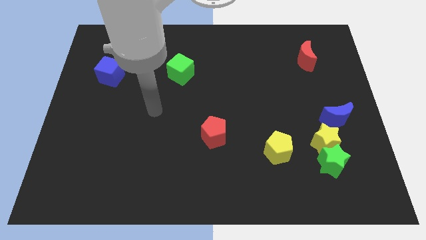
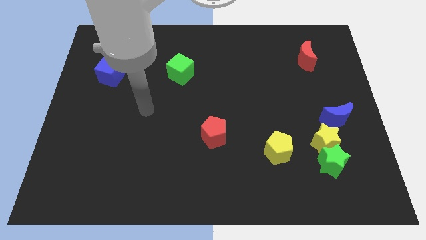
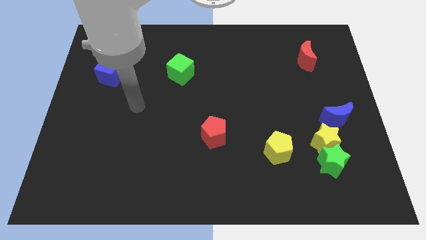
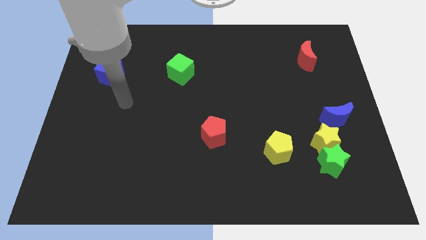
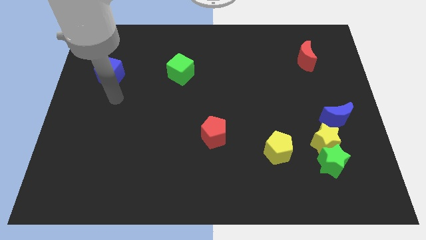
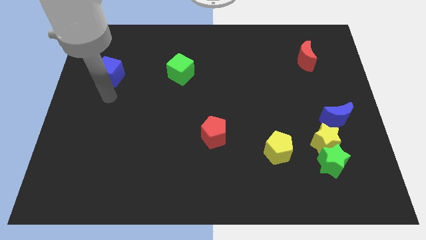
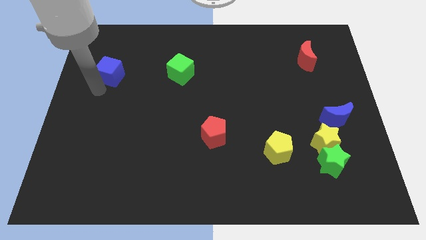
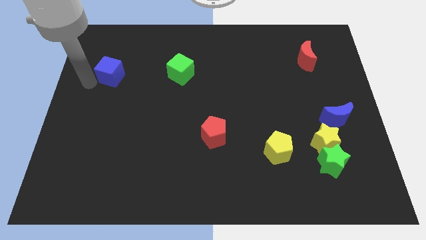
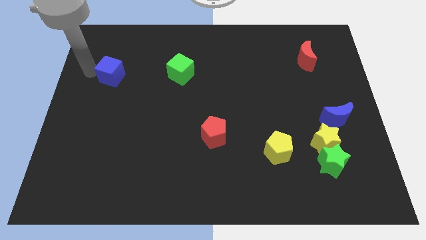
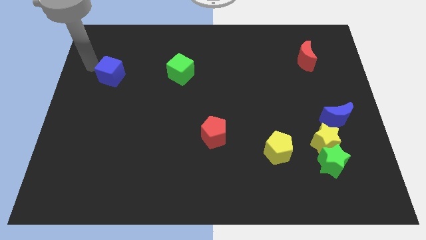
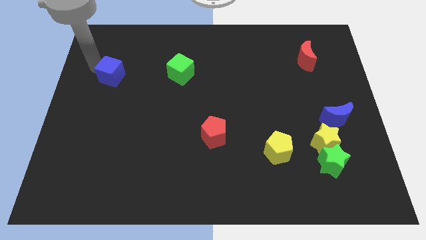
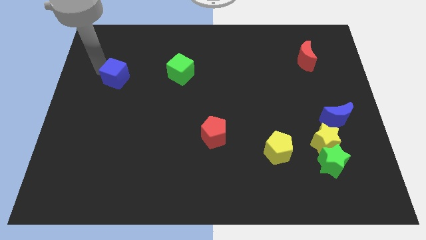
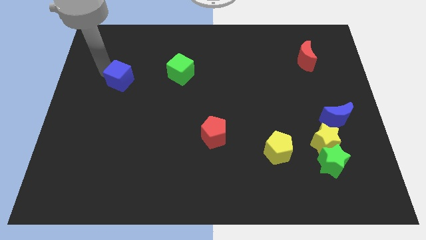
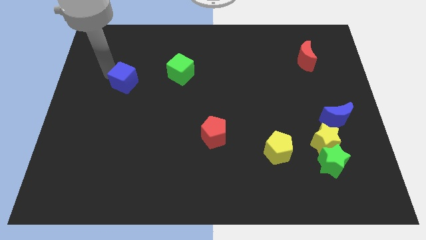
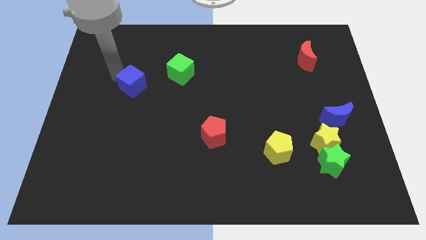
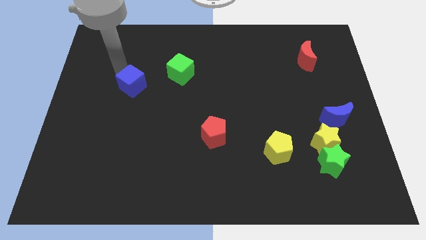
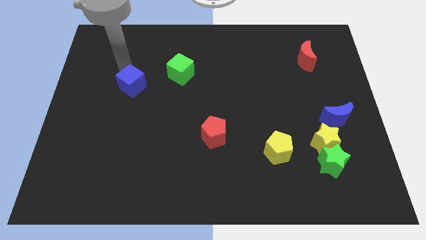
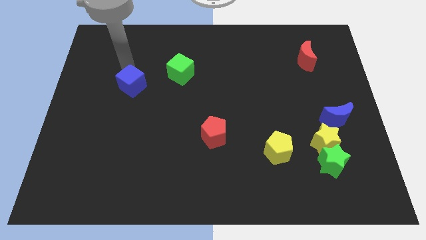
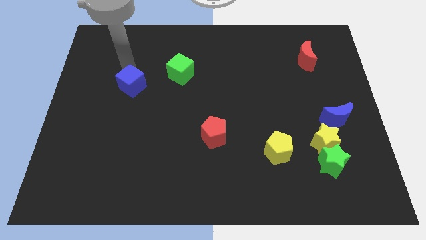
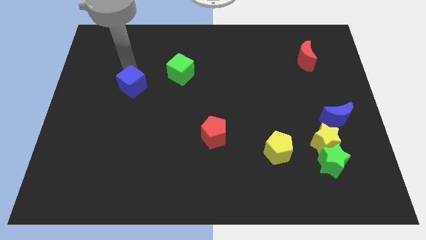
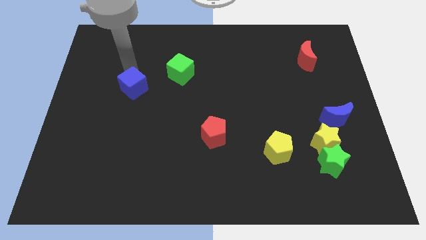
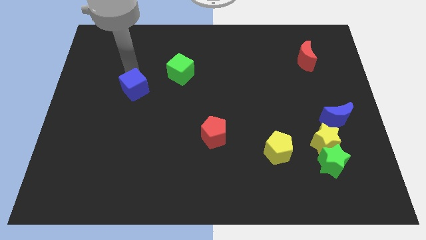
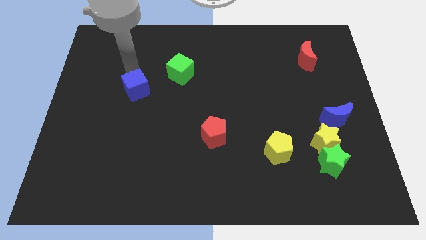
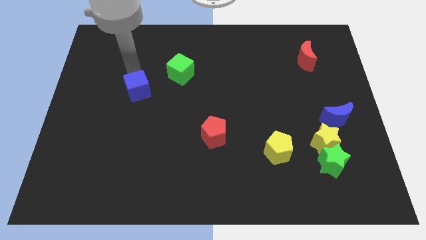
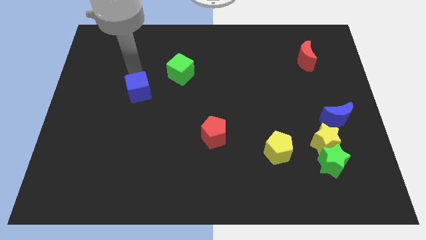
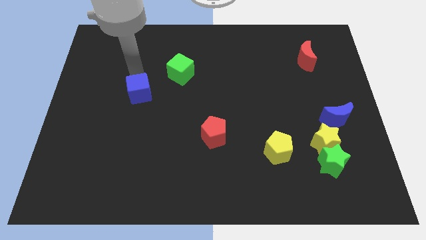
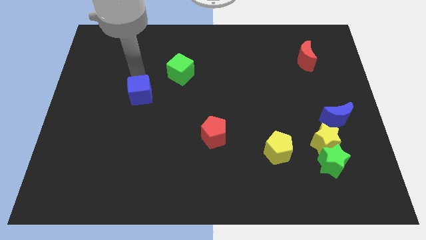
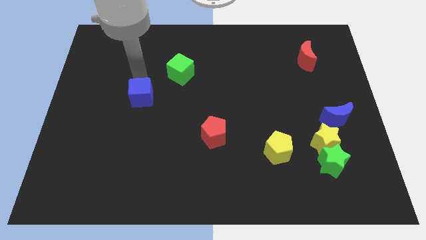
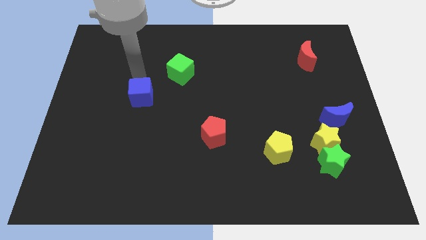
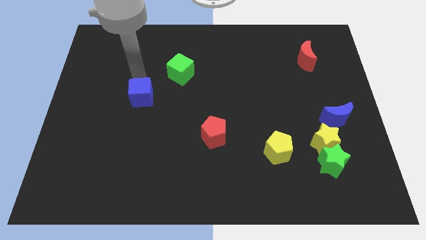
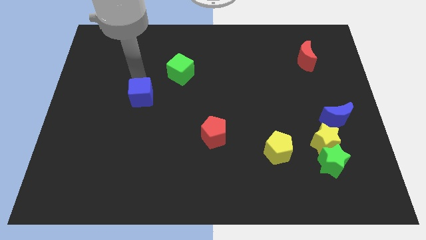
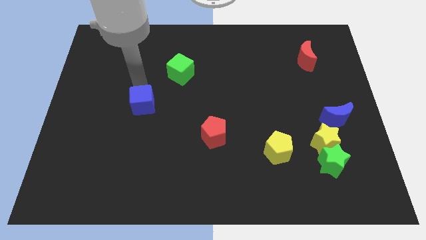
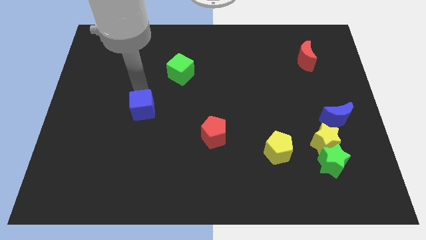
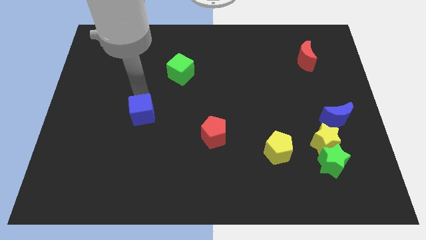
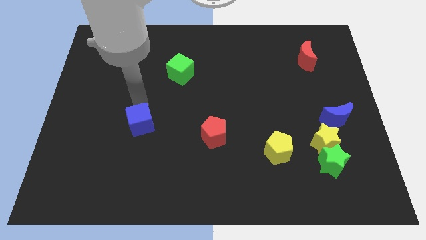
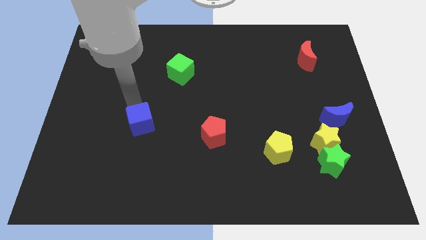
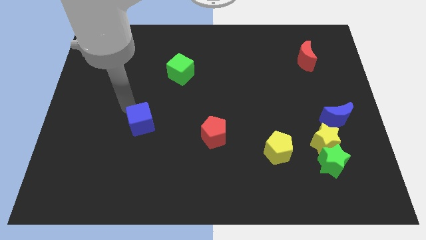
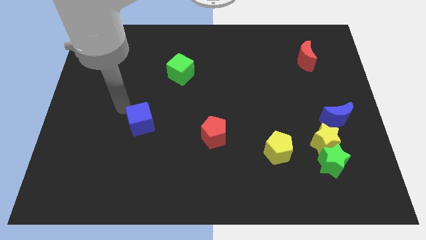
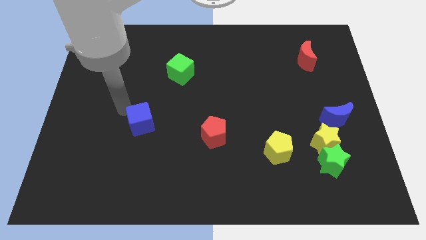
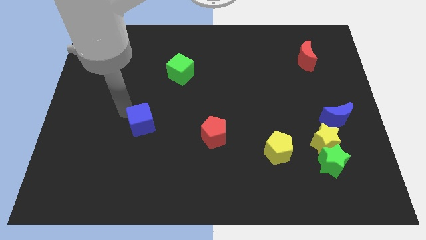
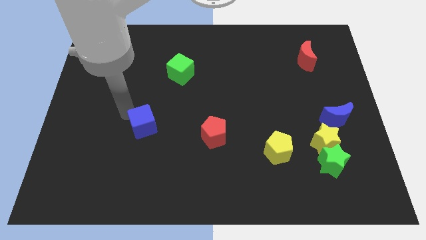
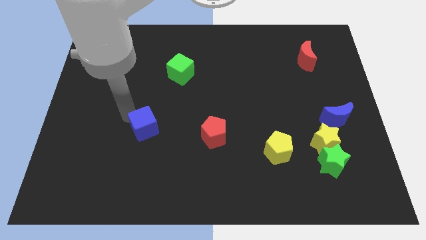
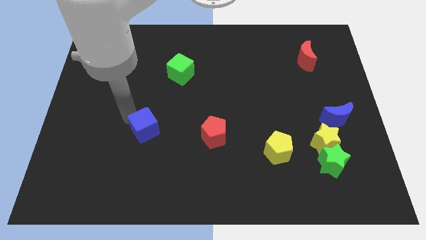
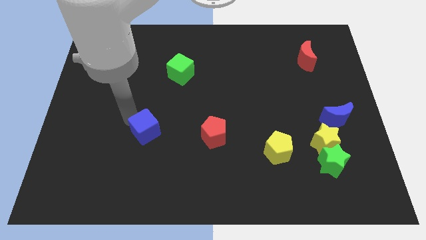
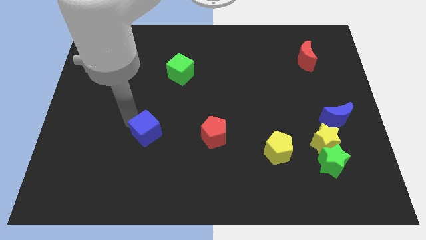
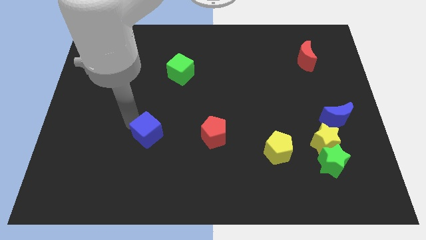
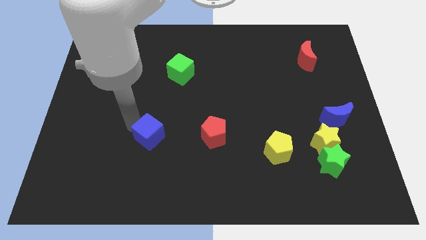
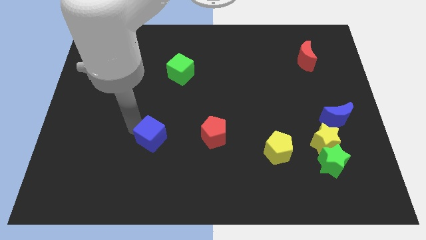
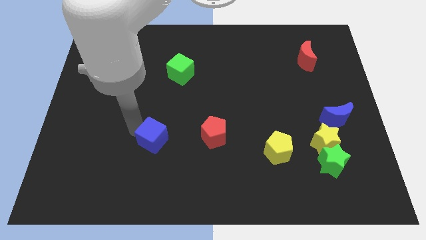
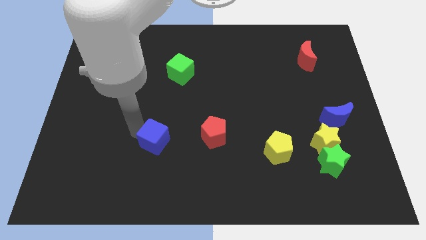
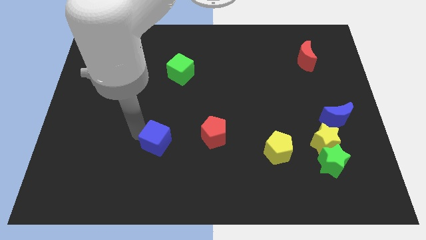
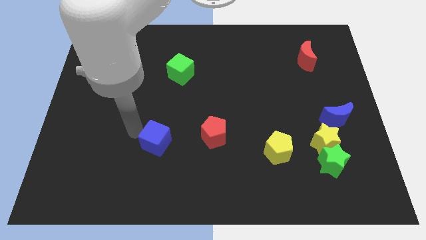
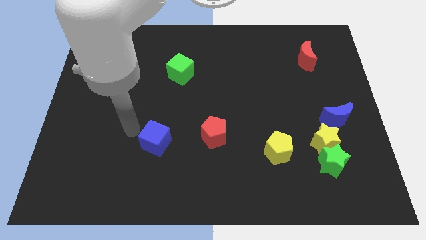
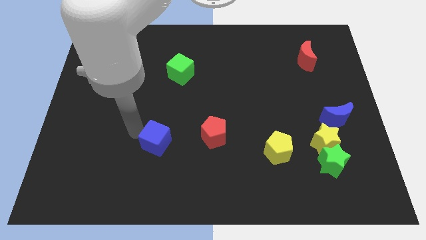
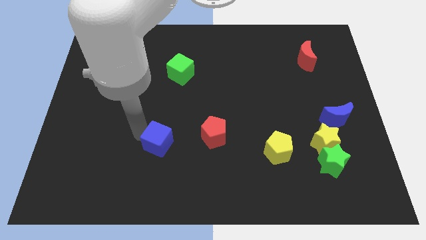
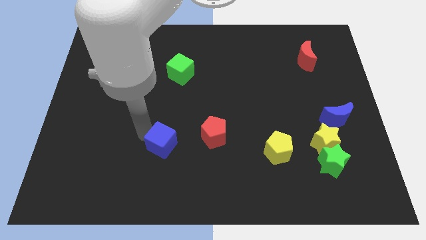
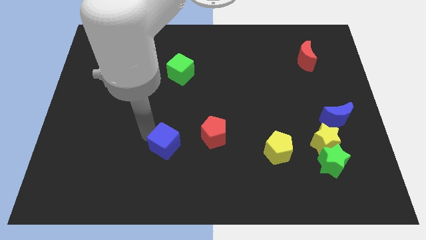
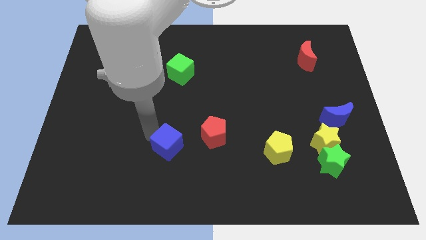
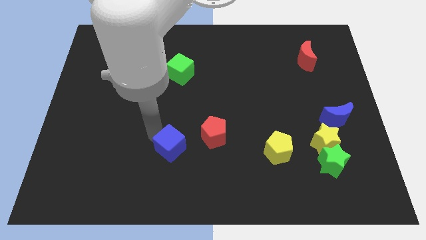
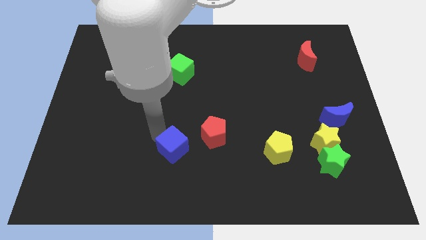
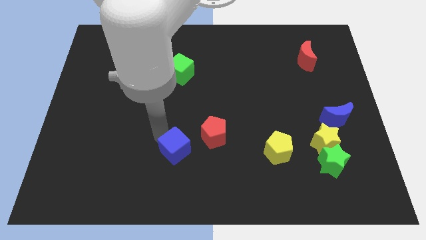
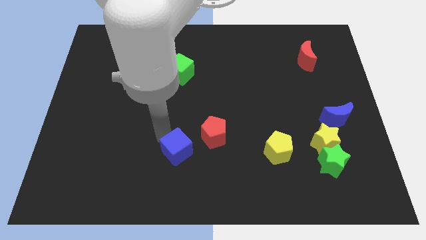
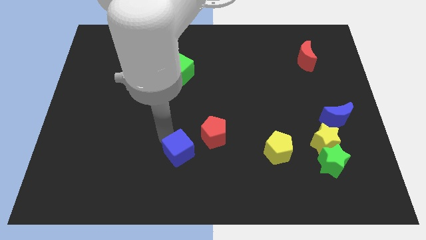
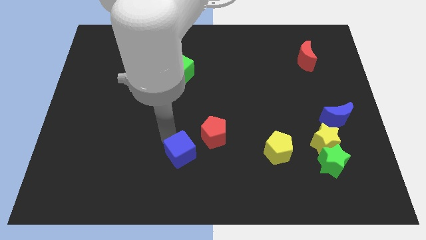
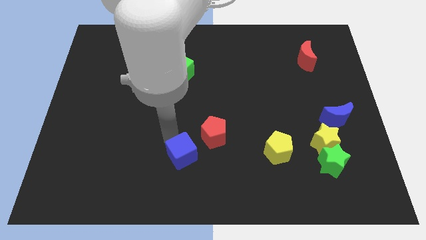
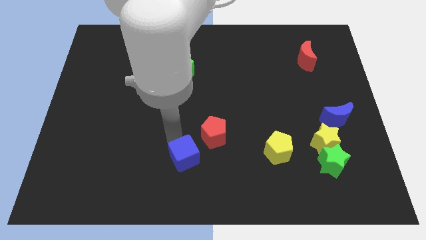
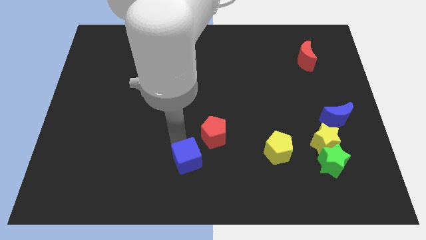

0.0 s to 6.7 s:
slide the blue cube to the bottom

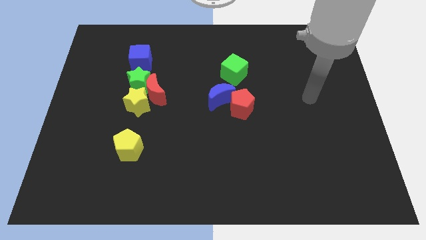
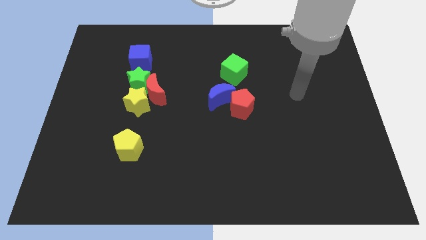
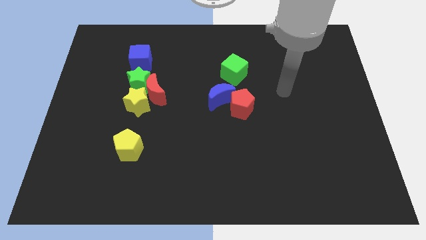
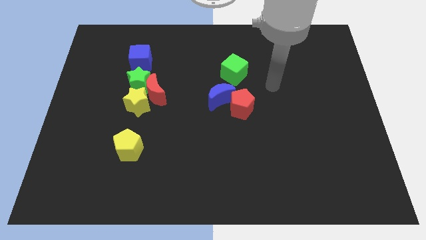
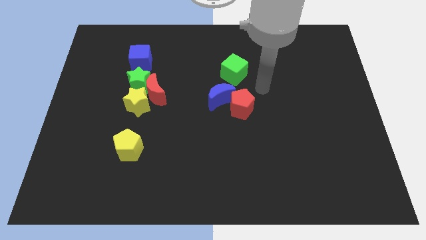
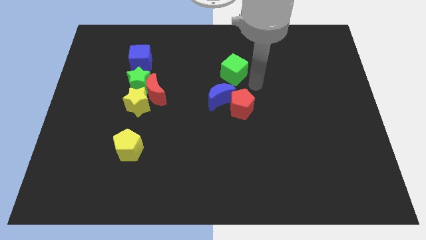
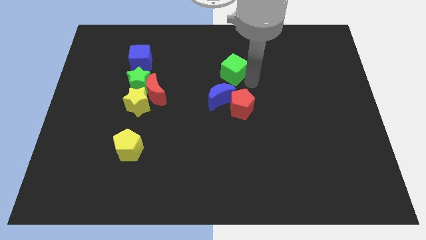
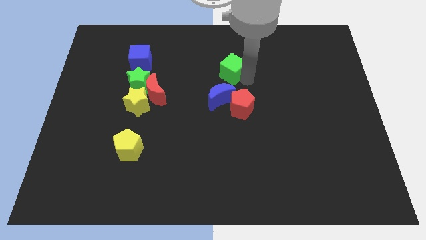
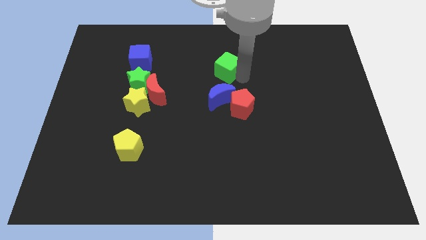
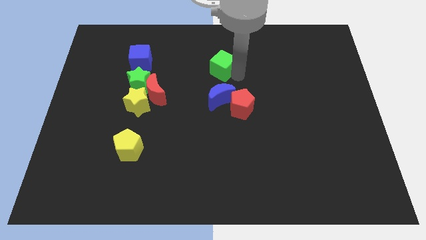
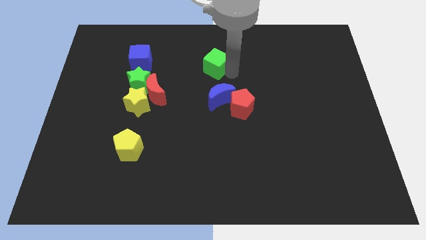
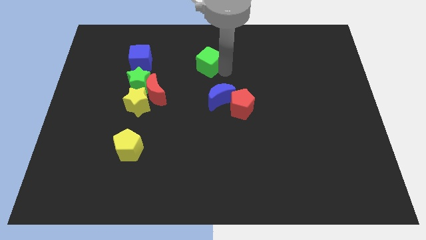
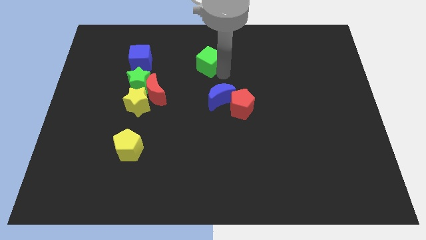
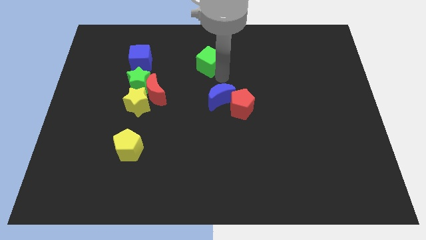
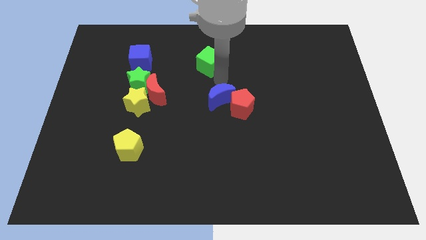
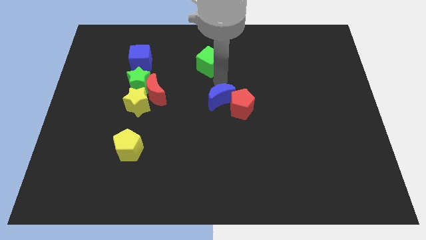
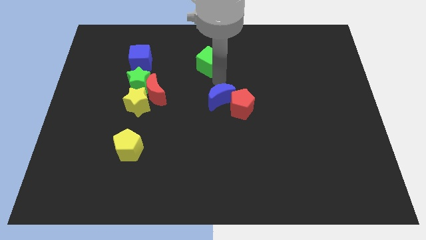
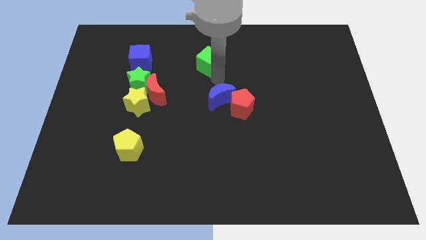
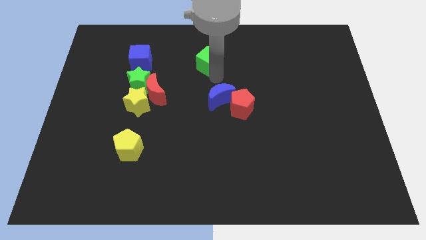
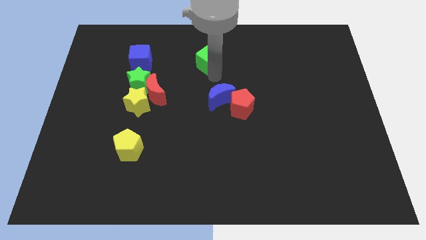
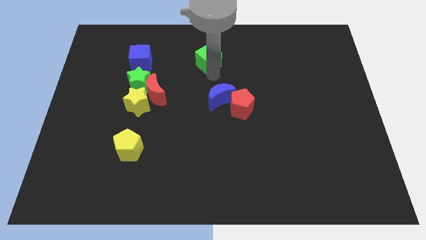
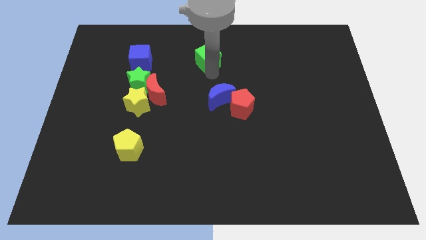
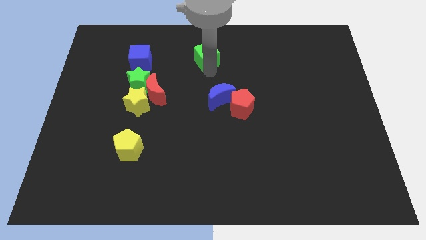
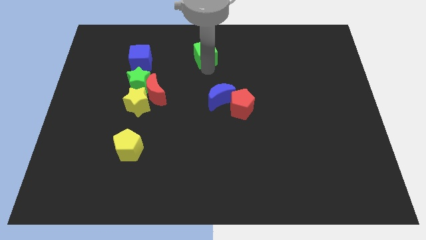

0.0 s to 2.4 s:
push the green cube to the towards your base
